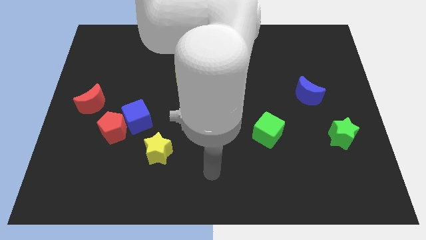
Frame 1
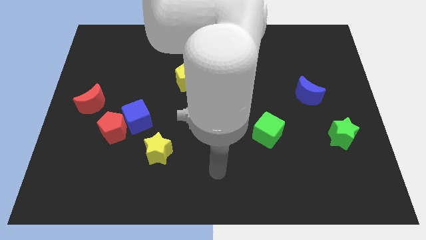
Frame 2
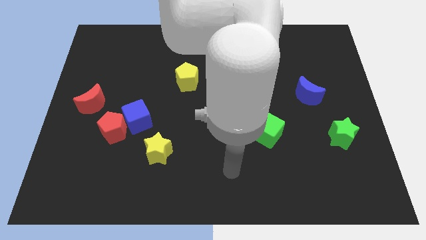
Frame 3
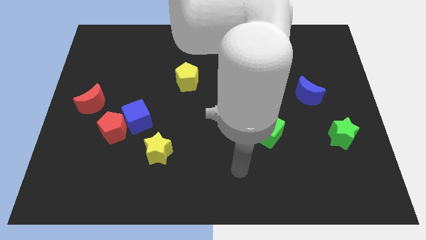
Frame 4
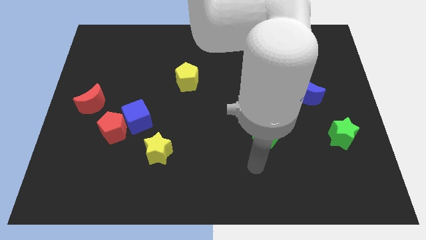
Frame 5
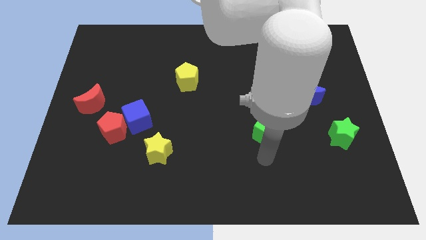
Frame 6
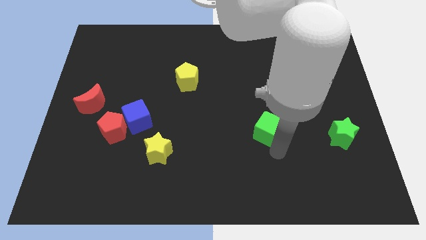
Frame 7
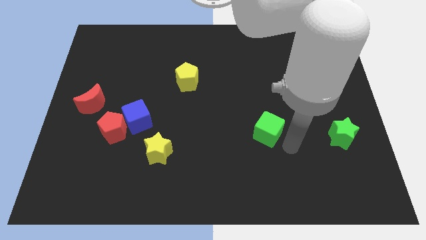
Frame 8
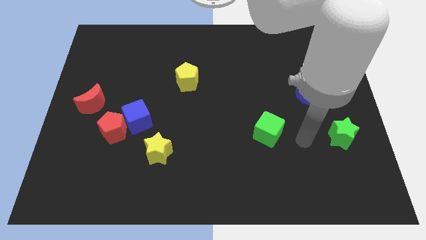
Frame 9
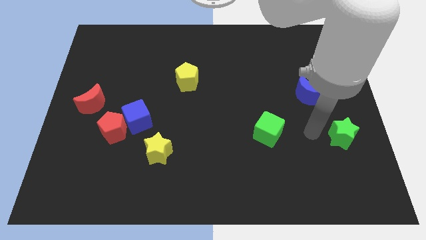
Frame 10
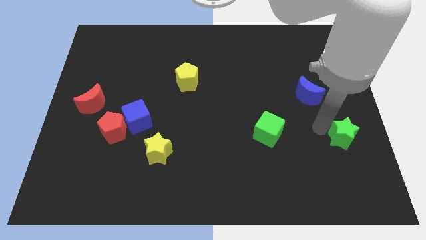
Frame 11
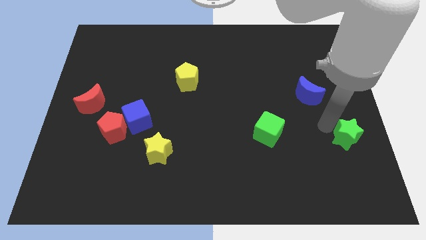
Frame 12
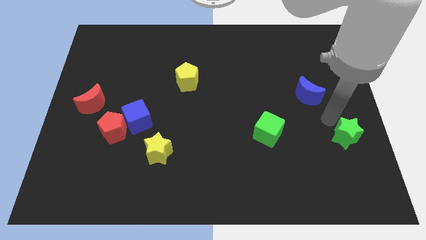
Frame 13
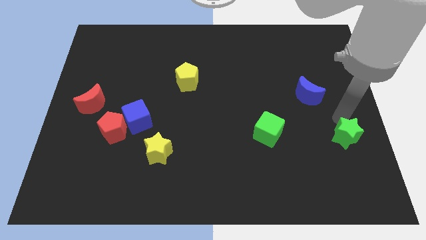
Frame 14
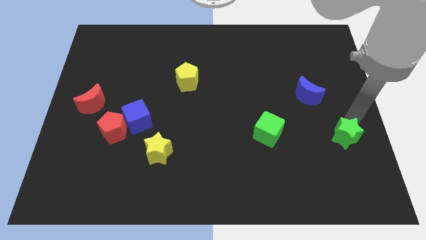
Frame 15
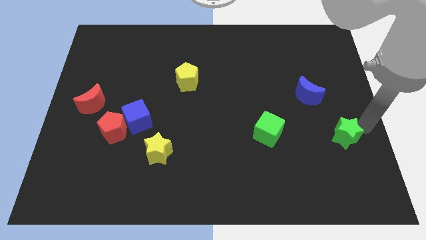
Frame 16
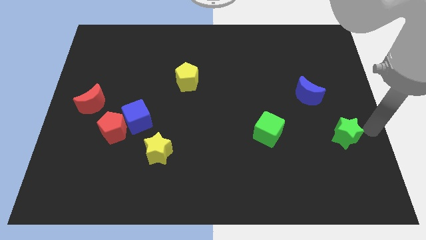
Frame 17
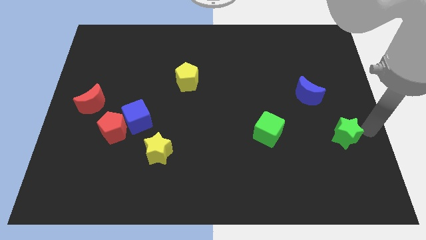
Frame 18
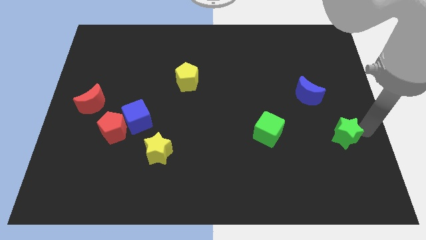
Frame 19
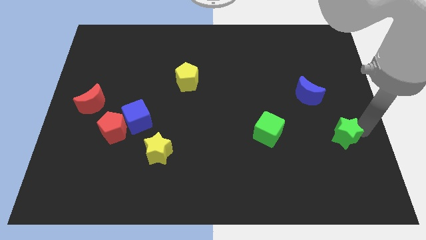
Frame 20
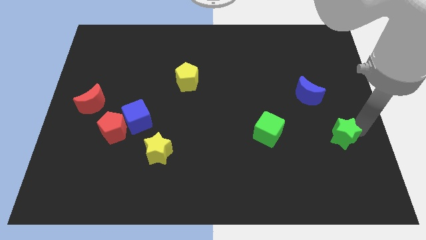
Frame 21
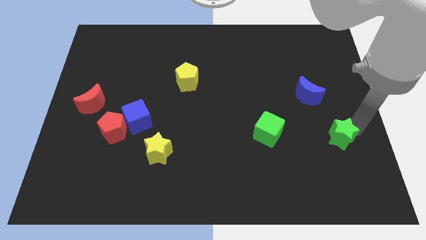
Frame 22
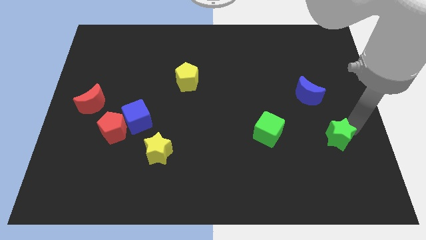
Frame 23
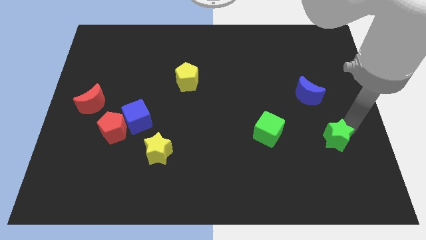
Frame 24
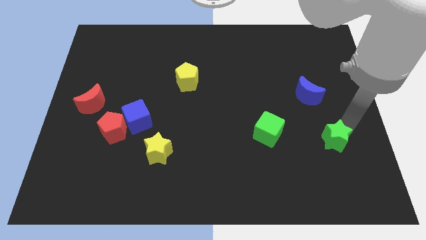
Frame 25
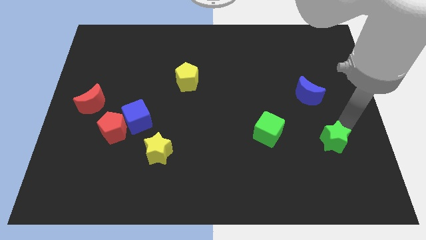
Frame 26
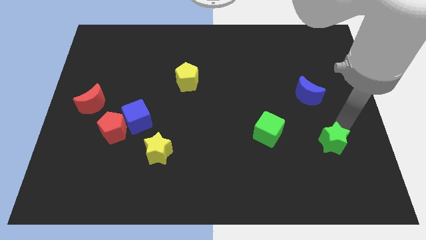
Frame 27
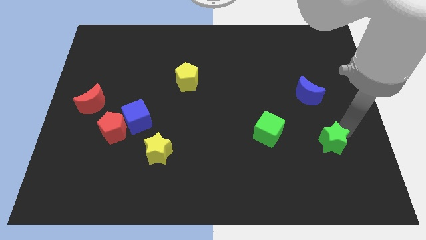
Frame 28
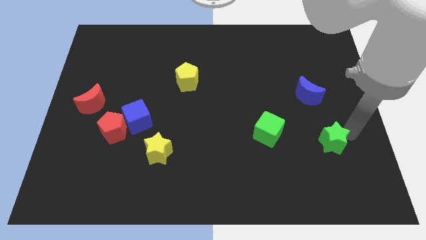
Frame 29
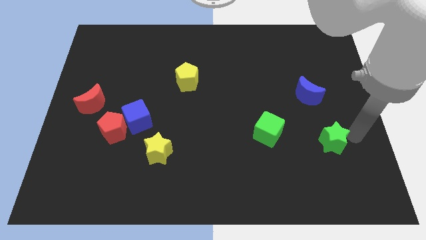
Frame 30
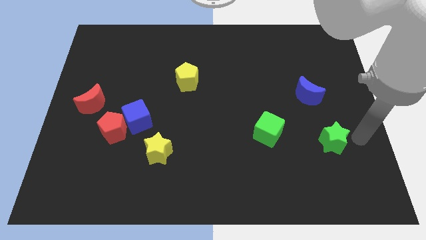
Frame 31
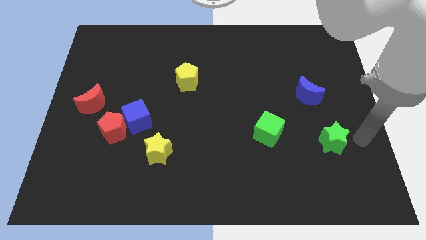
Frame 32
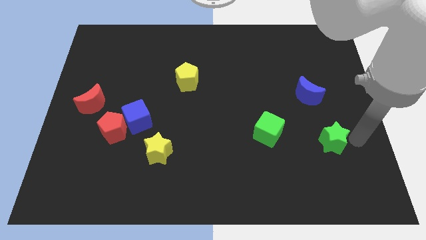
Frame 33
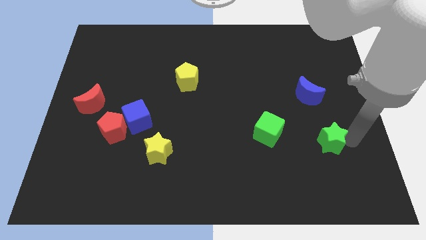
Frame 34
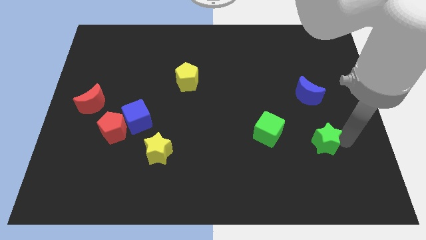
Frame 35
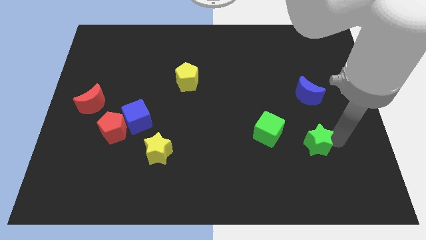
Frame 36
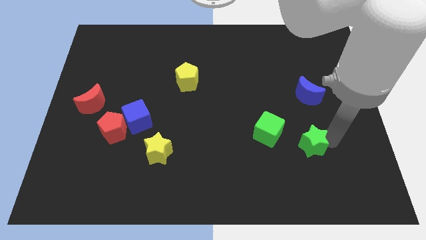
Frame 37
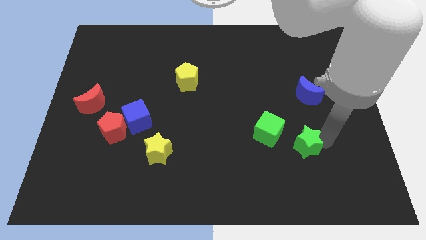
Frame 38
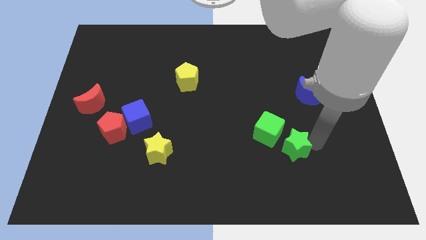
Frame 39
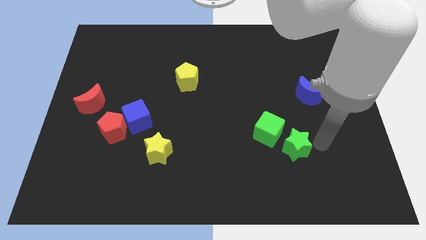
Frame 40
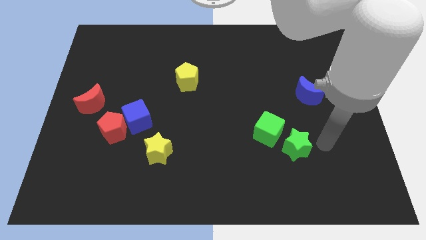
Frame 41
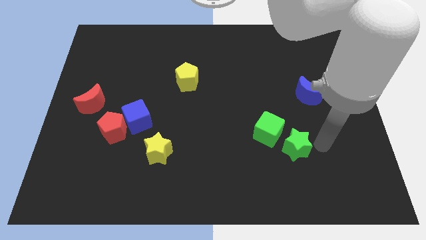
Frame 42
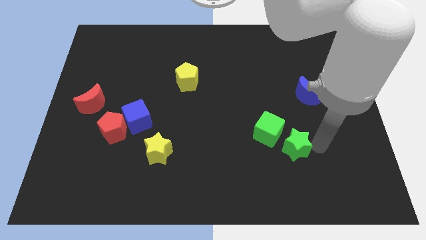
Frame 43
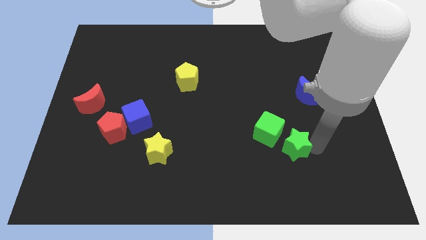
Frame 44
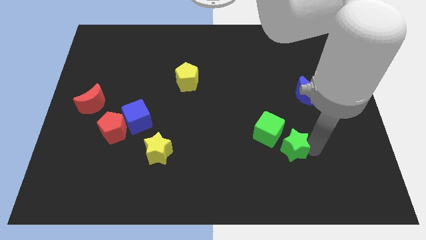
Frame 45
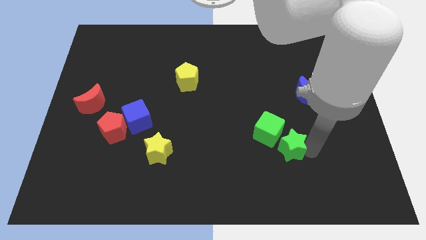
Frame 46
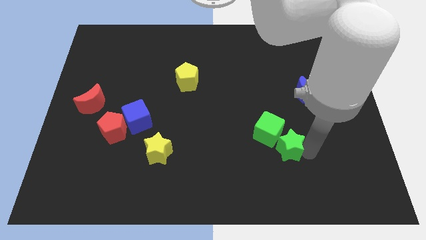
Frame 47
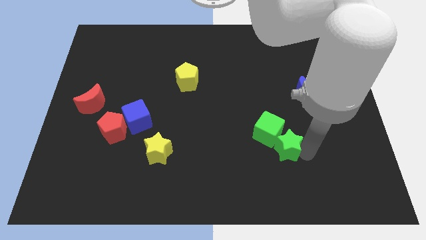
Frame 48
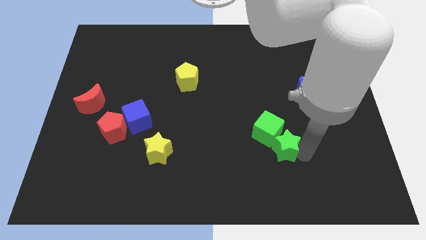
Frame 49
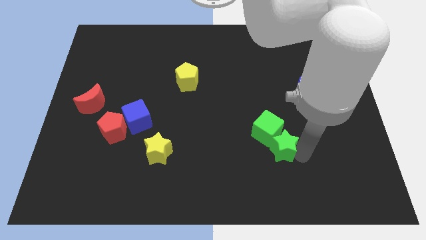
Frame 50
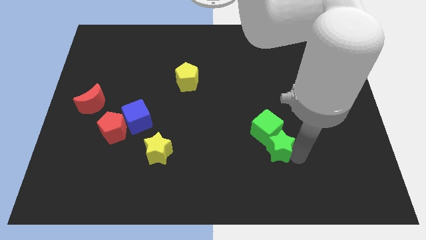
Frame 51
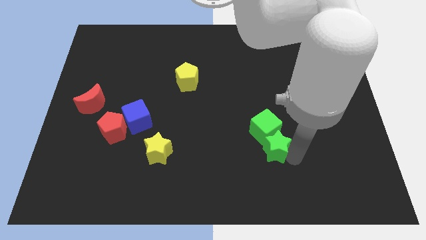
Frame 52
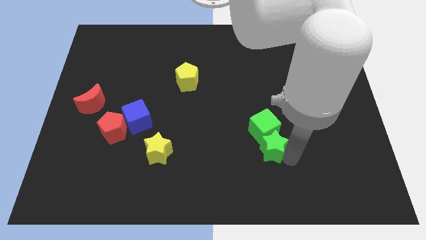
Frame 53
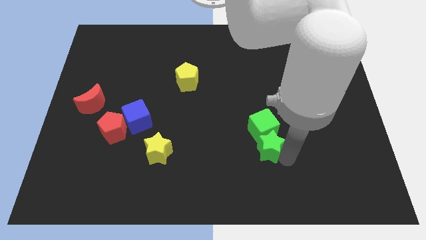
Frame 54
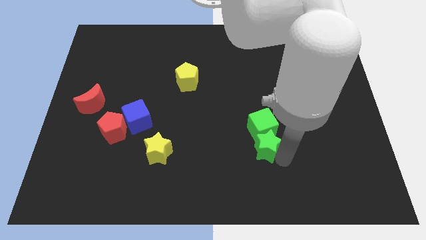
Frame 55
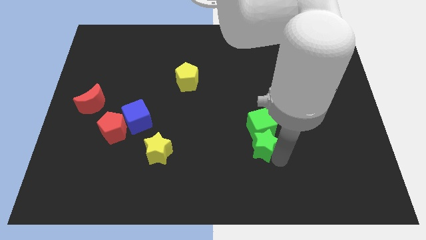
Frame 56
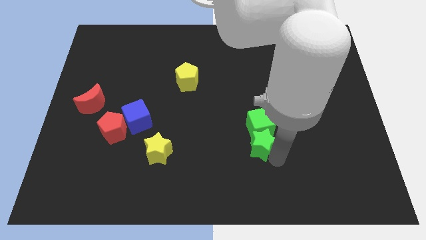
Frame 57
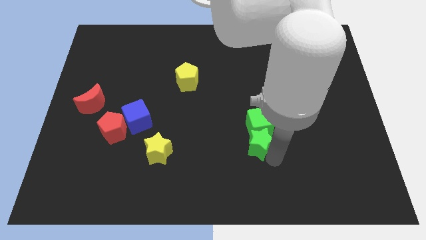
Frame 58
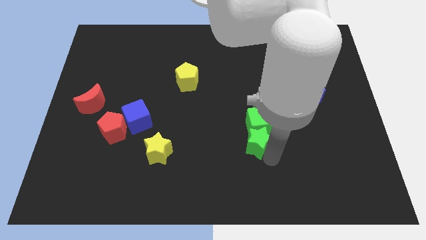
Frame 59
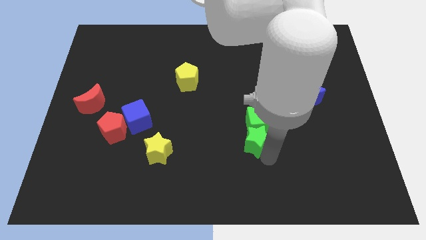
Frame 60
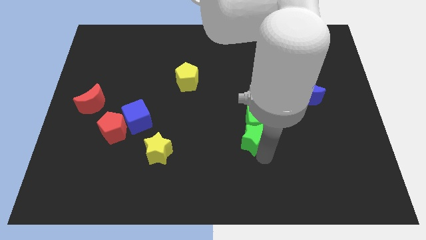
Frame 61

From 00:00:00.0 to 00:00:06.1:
move the green star to the left

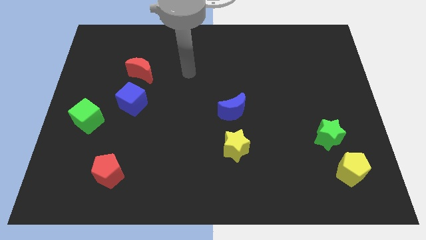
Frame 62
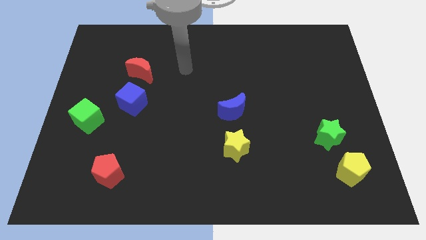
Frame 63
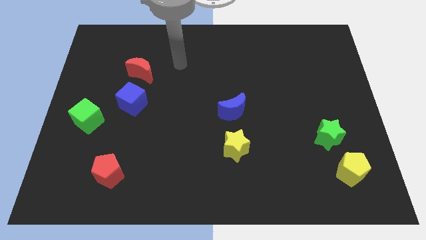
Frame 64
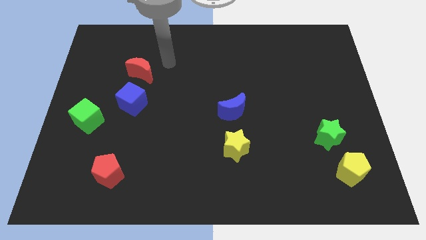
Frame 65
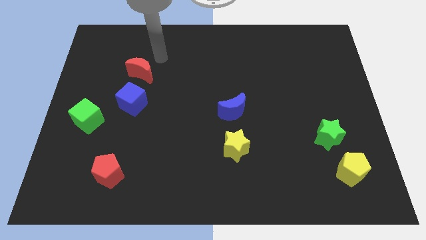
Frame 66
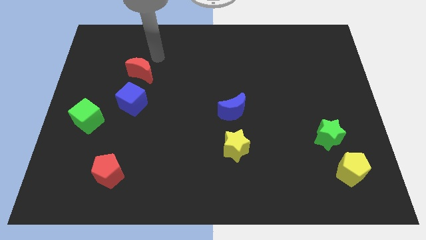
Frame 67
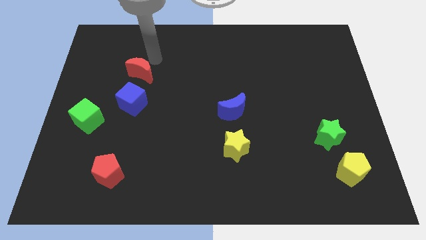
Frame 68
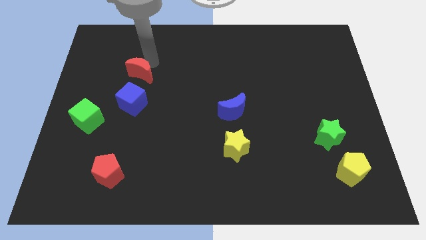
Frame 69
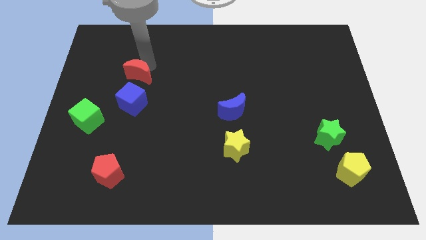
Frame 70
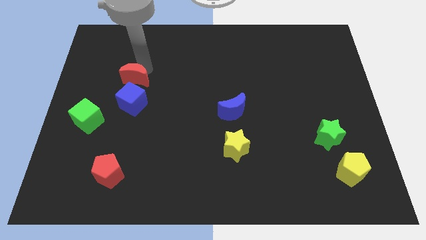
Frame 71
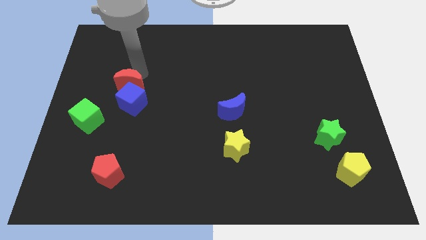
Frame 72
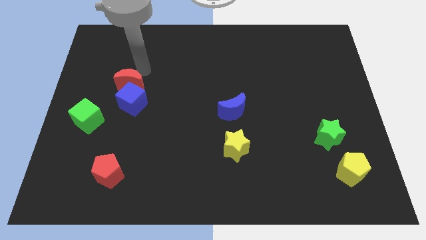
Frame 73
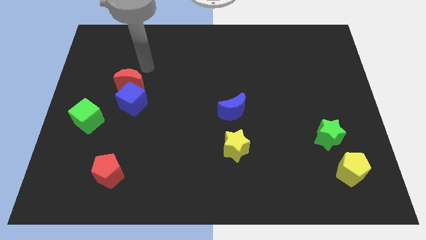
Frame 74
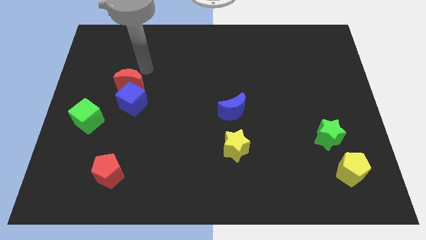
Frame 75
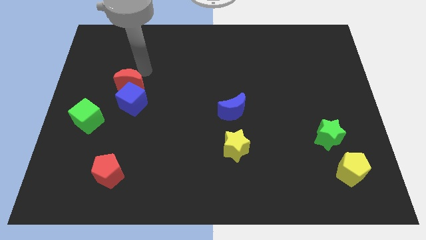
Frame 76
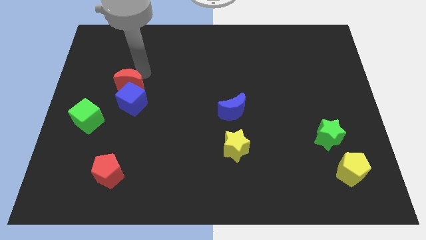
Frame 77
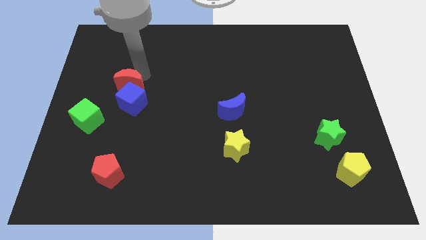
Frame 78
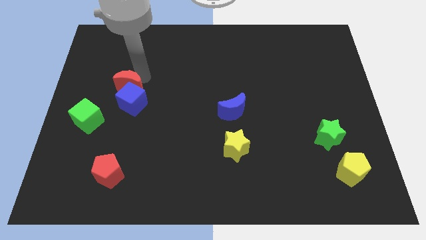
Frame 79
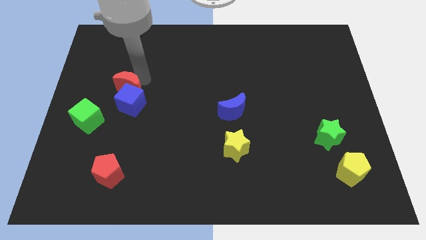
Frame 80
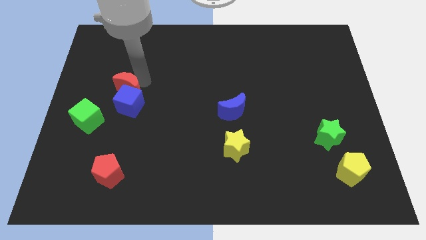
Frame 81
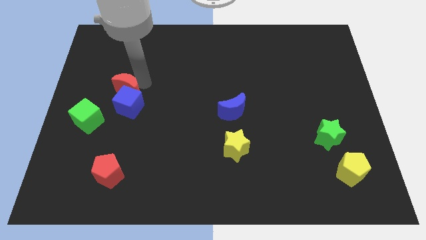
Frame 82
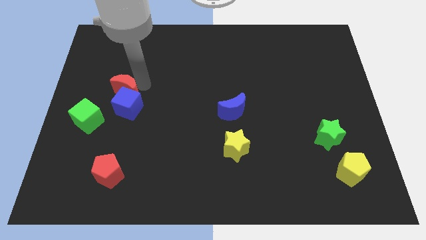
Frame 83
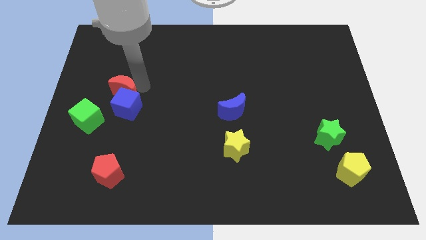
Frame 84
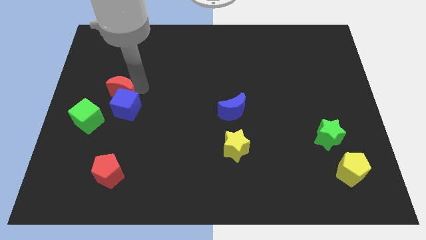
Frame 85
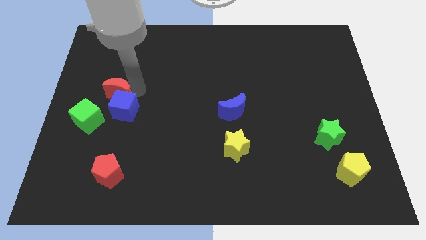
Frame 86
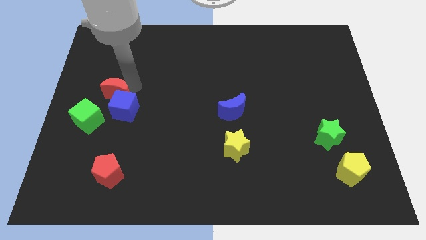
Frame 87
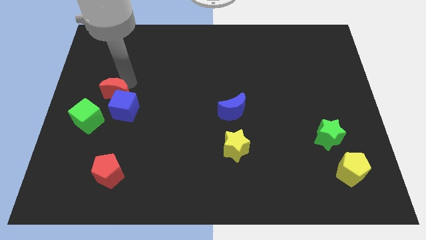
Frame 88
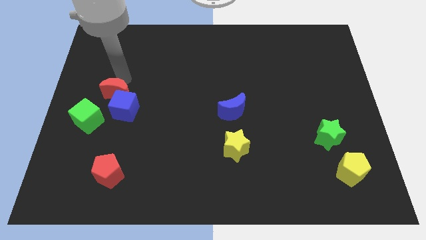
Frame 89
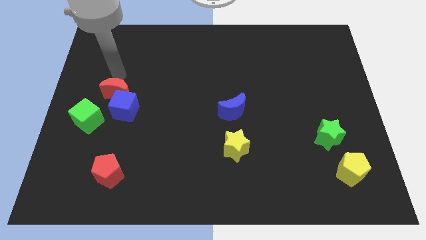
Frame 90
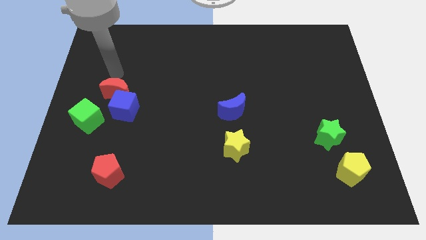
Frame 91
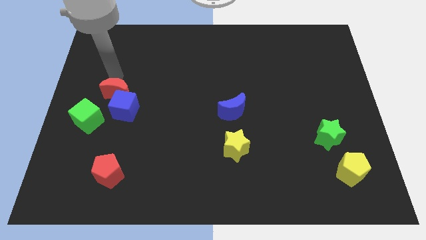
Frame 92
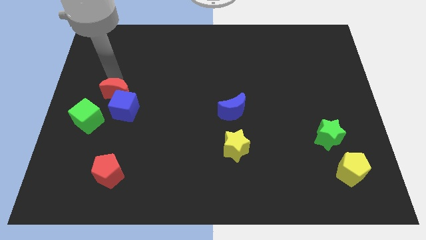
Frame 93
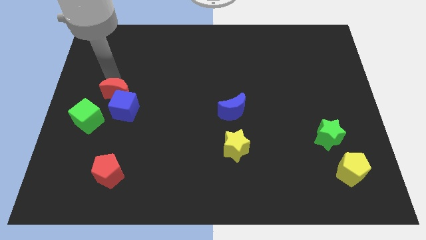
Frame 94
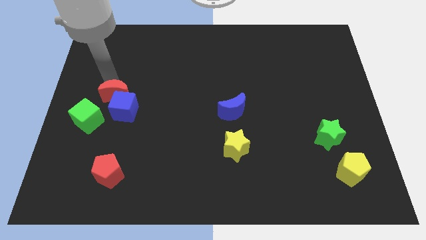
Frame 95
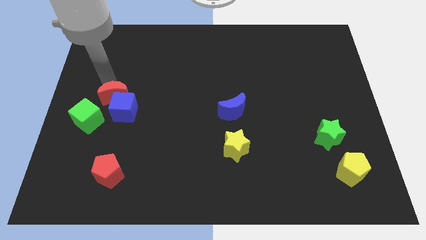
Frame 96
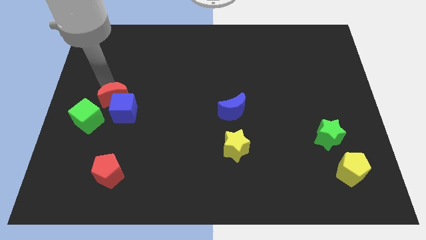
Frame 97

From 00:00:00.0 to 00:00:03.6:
slightly push the red moon down
